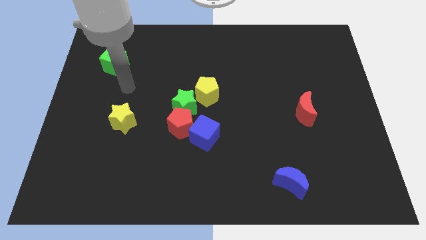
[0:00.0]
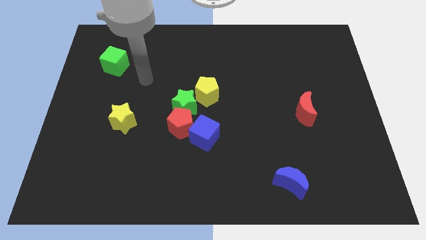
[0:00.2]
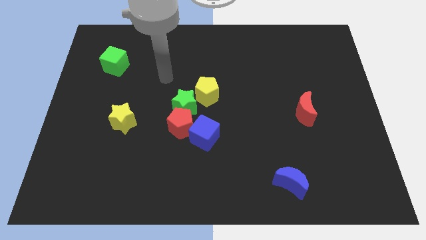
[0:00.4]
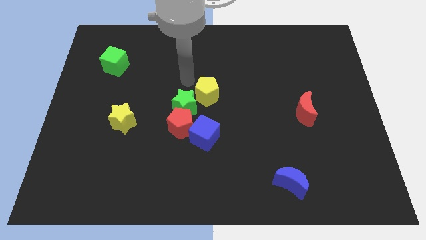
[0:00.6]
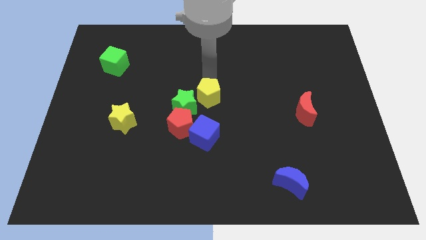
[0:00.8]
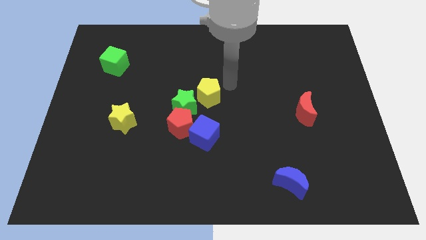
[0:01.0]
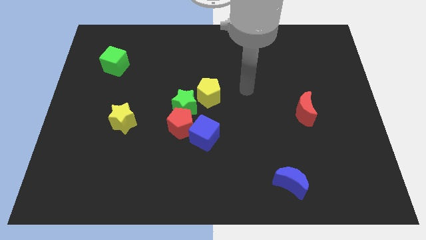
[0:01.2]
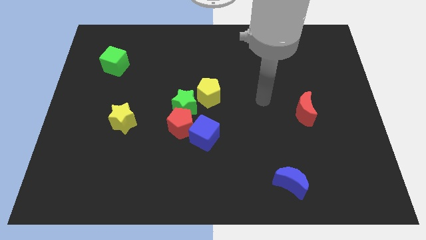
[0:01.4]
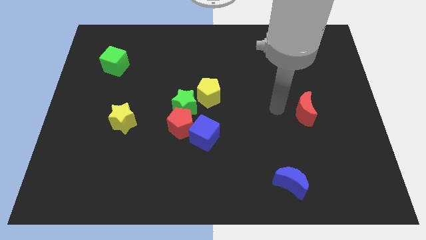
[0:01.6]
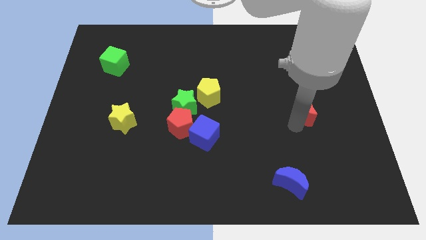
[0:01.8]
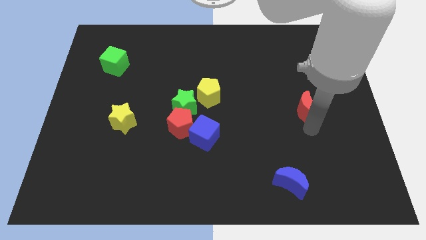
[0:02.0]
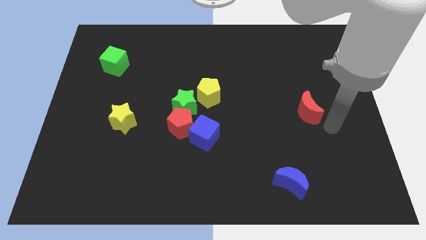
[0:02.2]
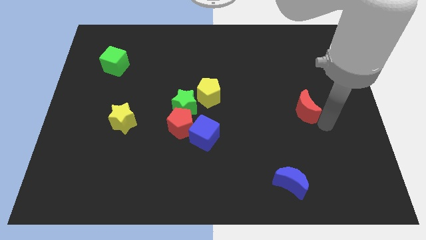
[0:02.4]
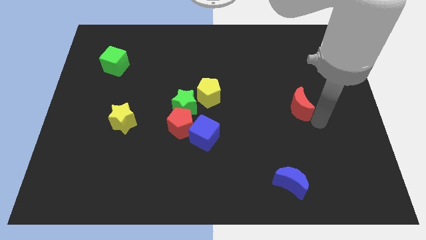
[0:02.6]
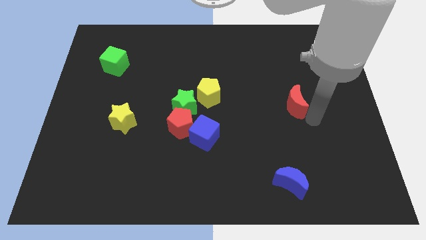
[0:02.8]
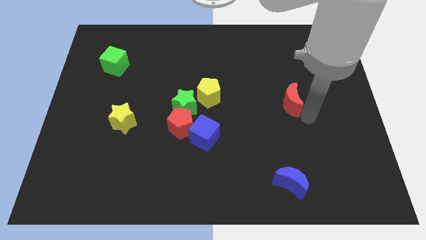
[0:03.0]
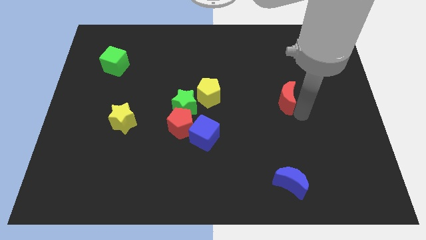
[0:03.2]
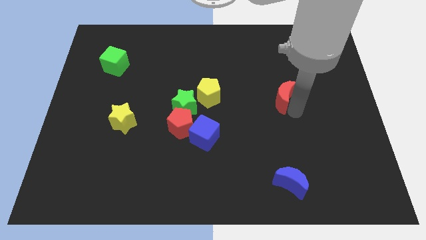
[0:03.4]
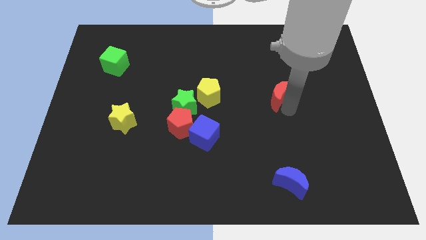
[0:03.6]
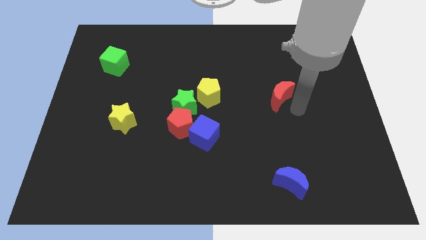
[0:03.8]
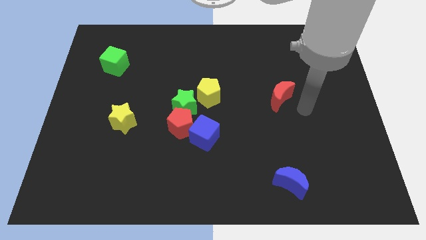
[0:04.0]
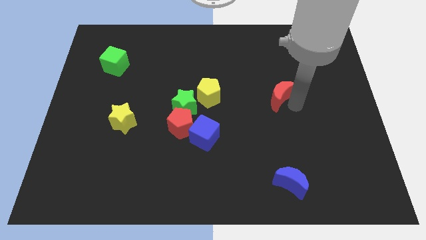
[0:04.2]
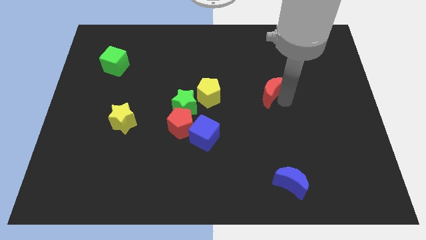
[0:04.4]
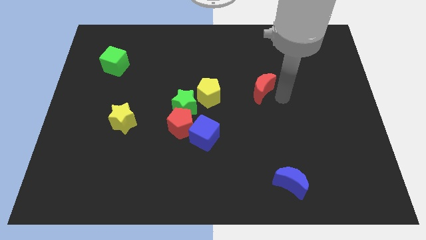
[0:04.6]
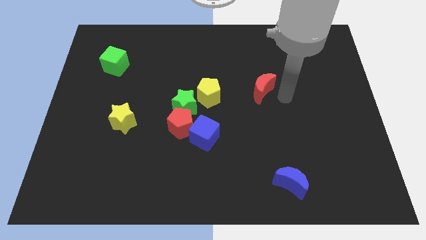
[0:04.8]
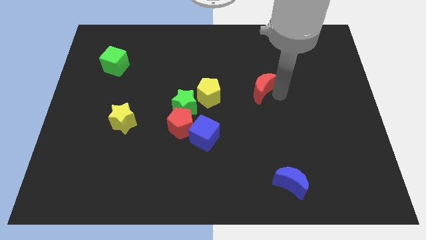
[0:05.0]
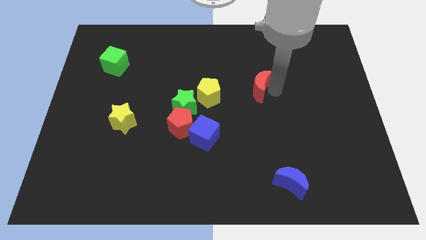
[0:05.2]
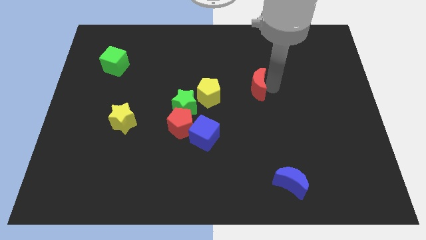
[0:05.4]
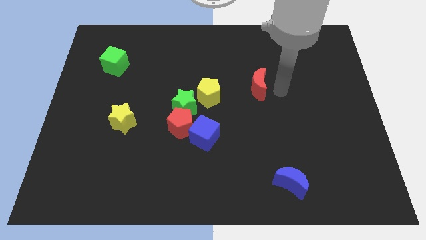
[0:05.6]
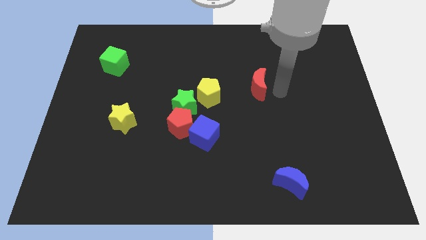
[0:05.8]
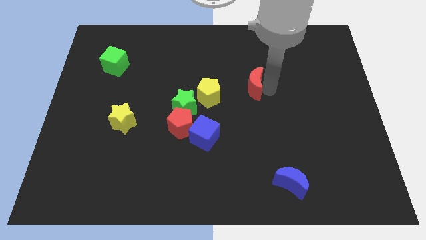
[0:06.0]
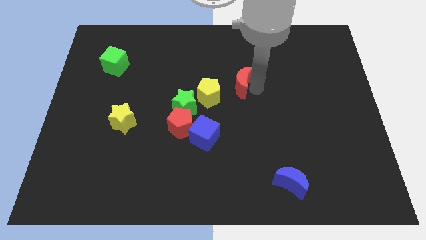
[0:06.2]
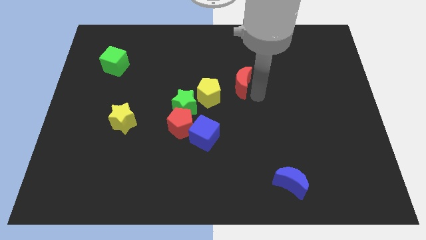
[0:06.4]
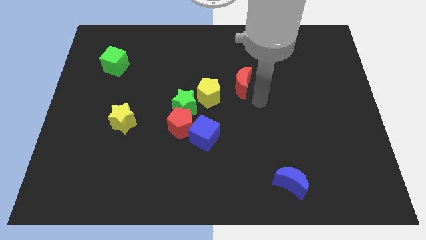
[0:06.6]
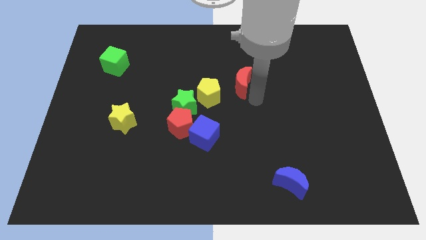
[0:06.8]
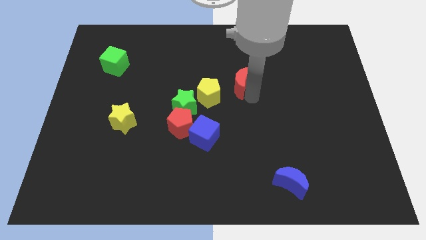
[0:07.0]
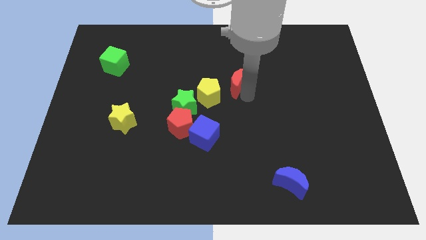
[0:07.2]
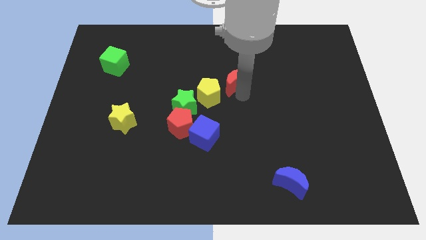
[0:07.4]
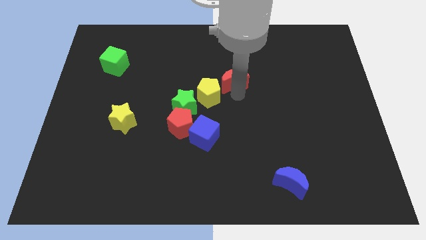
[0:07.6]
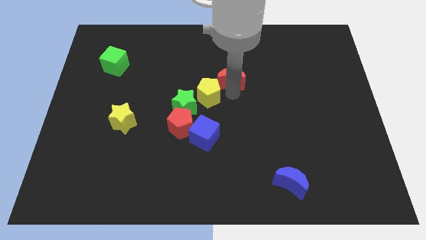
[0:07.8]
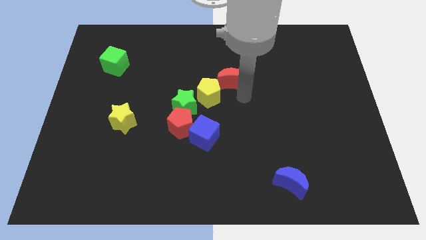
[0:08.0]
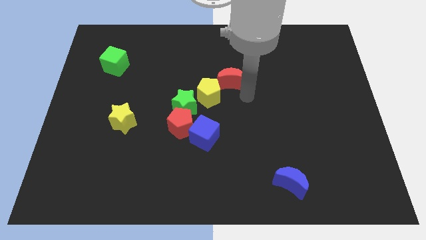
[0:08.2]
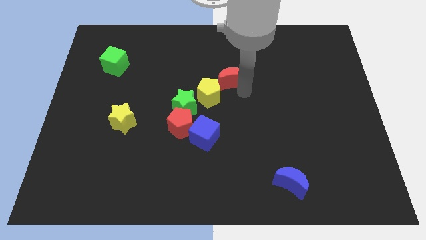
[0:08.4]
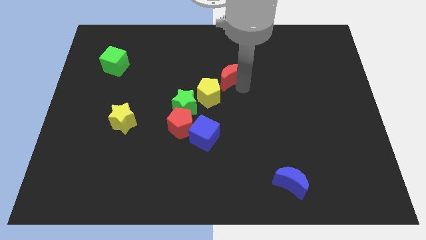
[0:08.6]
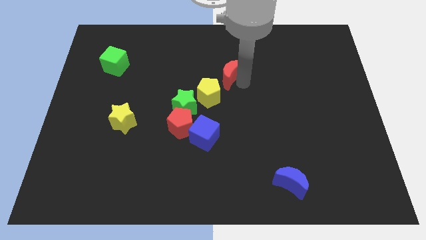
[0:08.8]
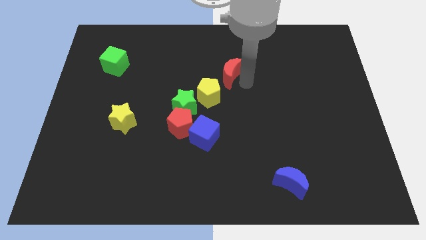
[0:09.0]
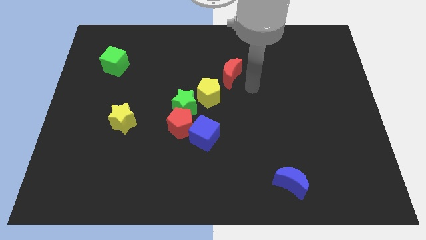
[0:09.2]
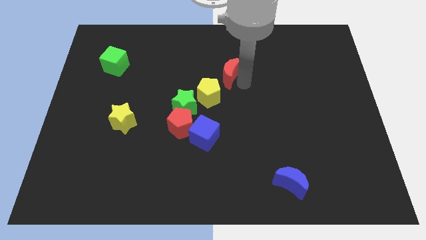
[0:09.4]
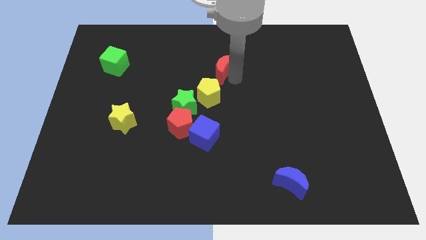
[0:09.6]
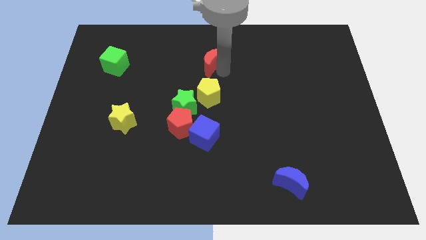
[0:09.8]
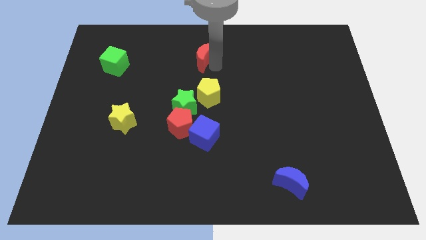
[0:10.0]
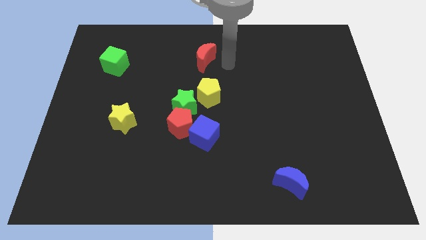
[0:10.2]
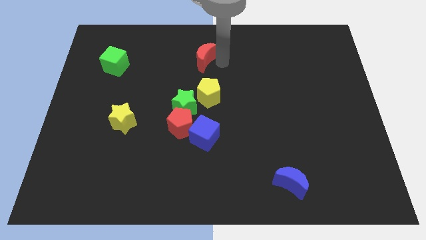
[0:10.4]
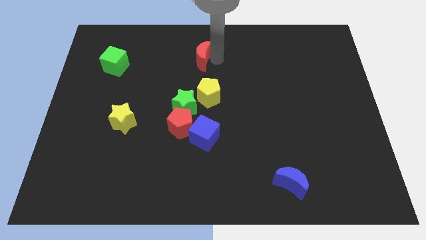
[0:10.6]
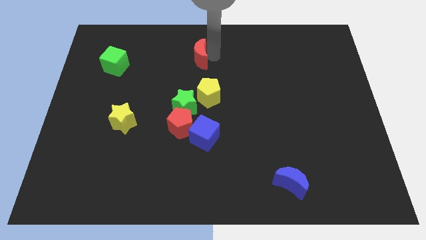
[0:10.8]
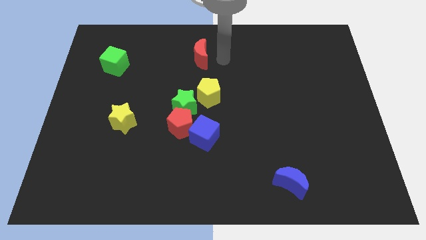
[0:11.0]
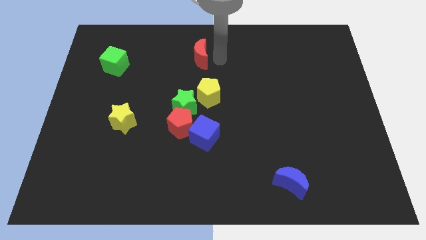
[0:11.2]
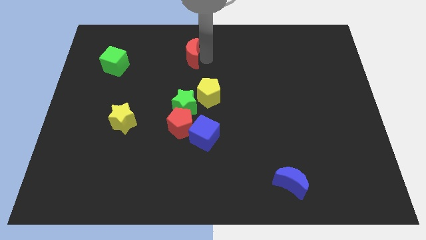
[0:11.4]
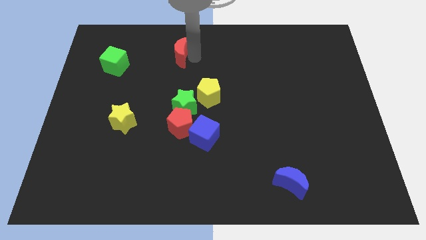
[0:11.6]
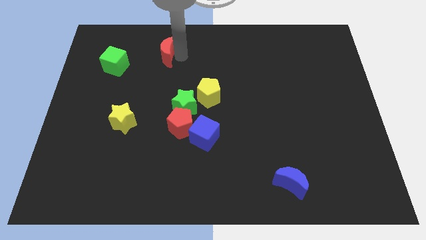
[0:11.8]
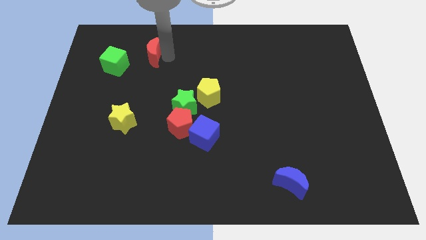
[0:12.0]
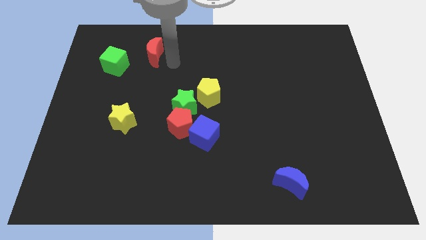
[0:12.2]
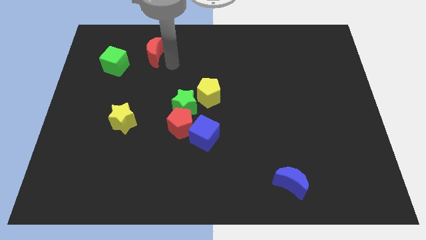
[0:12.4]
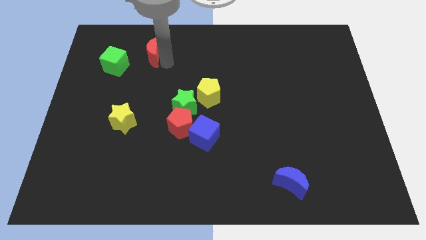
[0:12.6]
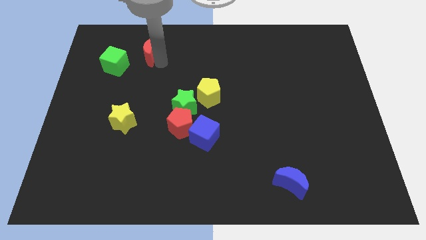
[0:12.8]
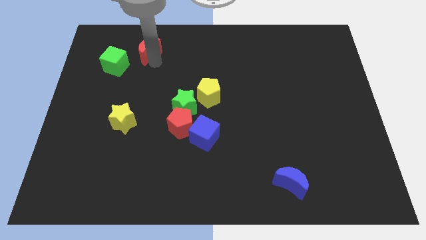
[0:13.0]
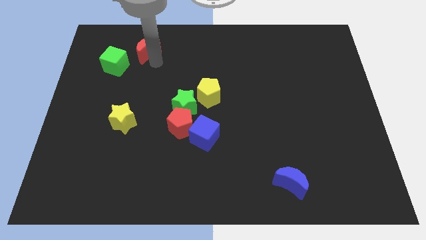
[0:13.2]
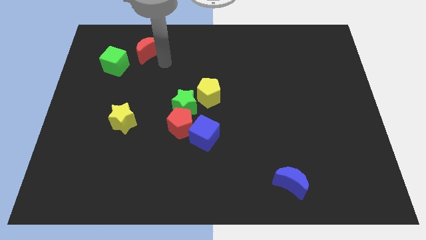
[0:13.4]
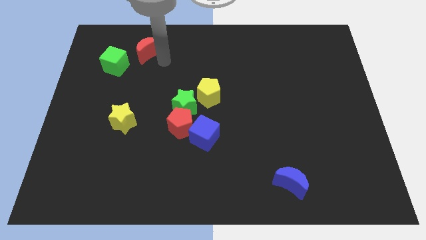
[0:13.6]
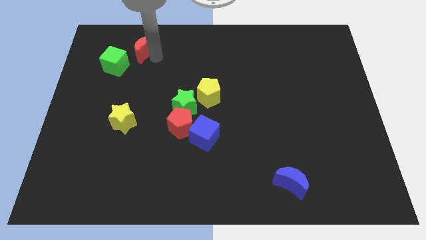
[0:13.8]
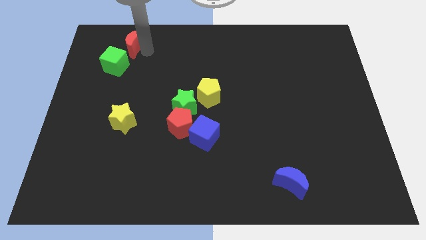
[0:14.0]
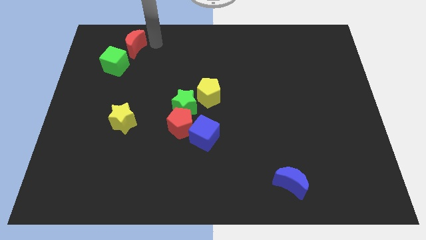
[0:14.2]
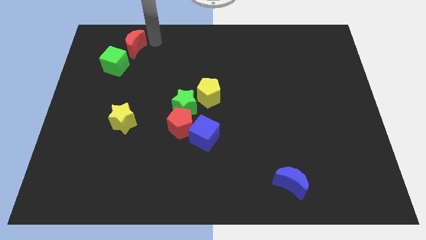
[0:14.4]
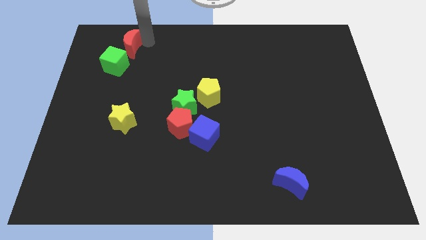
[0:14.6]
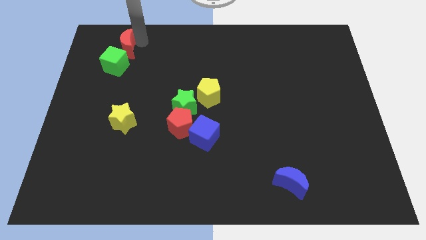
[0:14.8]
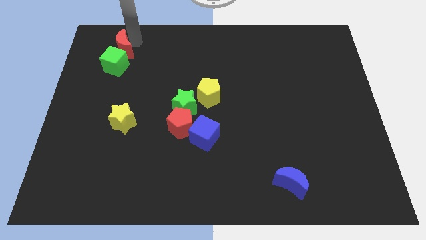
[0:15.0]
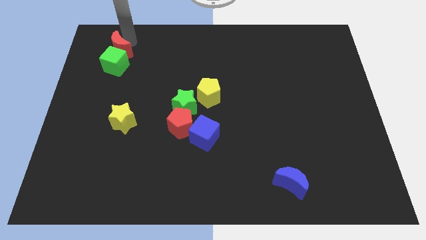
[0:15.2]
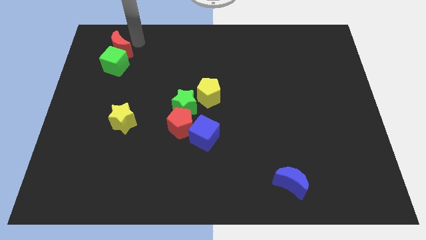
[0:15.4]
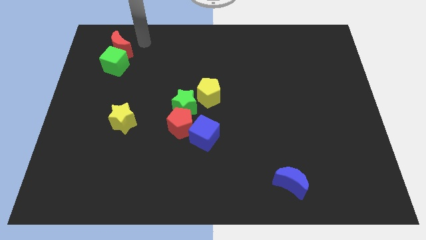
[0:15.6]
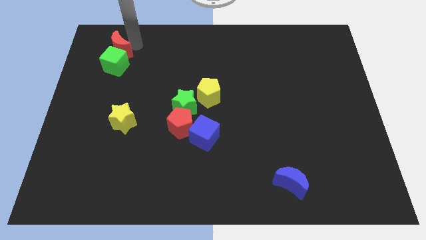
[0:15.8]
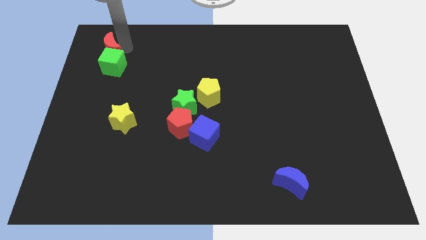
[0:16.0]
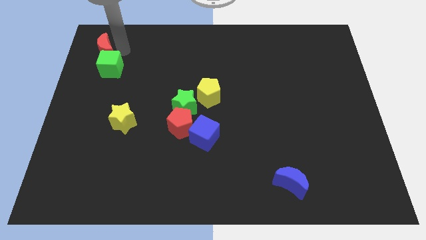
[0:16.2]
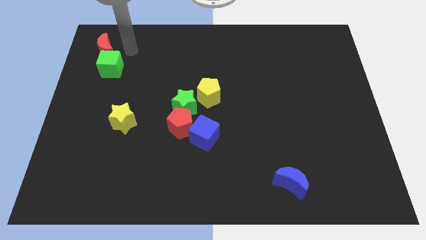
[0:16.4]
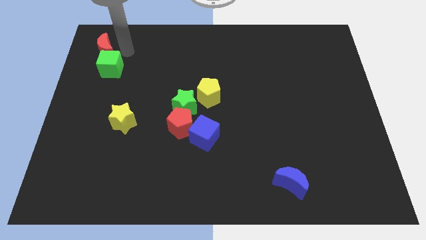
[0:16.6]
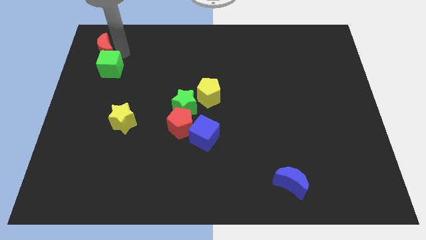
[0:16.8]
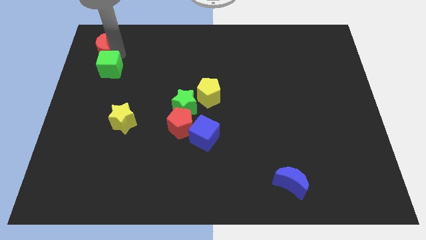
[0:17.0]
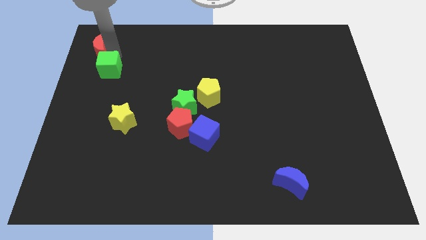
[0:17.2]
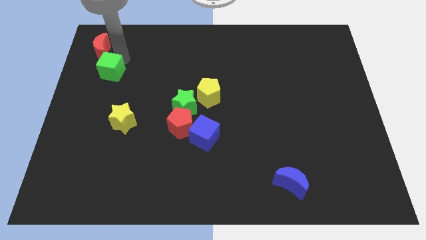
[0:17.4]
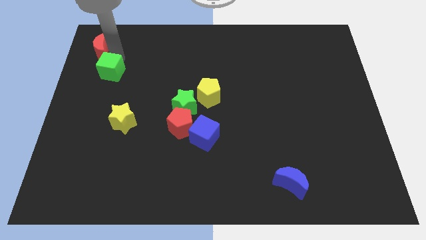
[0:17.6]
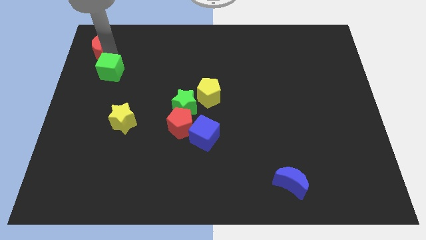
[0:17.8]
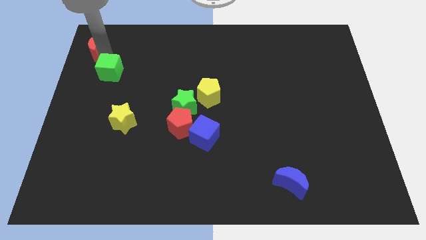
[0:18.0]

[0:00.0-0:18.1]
push the red moon to the top left corner
